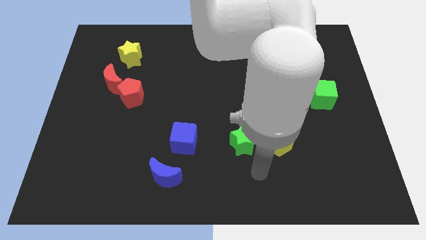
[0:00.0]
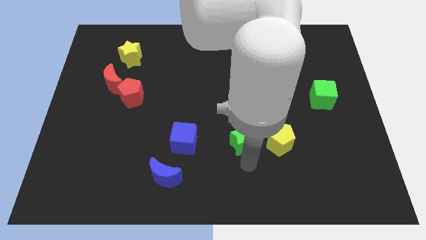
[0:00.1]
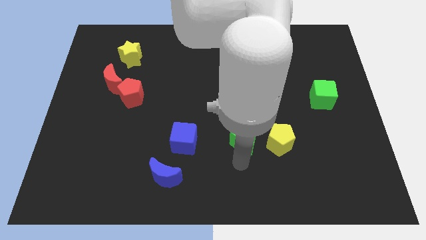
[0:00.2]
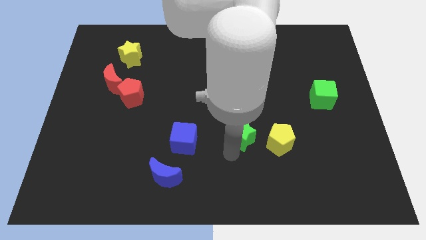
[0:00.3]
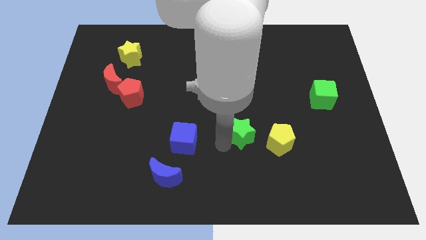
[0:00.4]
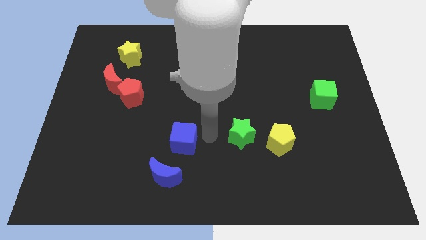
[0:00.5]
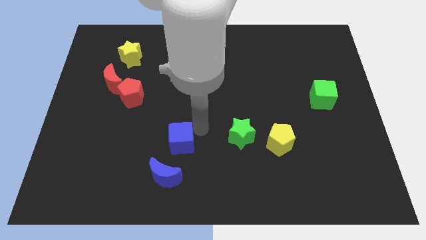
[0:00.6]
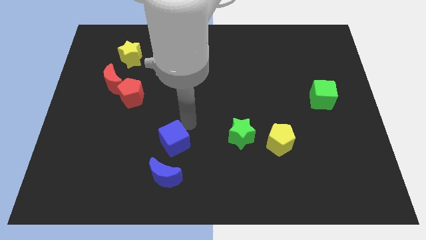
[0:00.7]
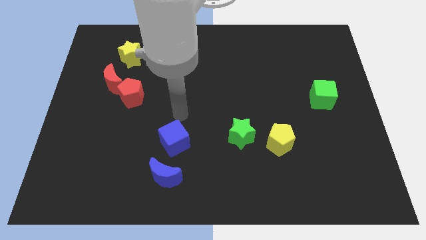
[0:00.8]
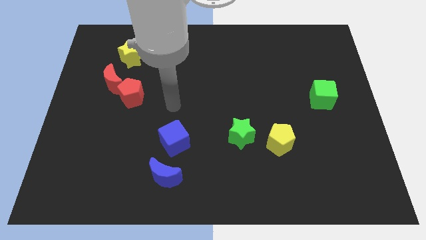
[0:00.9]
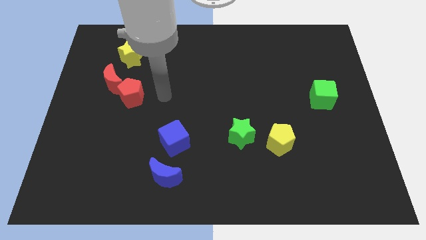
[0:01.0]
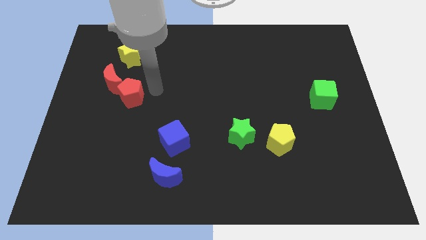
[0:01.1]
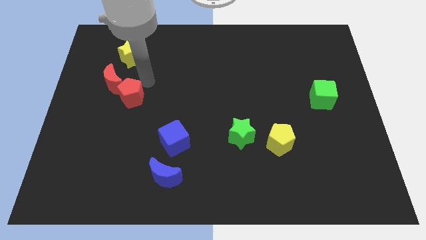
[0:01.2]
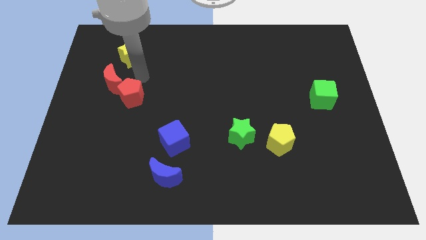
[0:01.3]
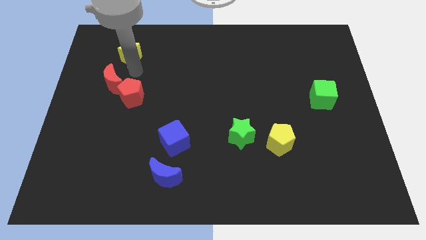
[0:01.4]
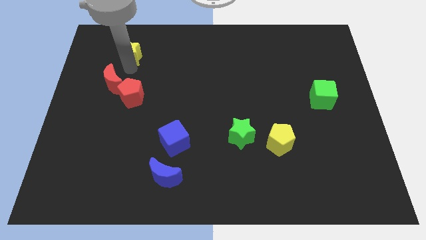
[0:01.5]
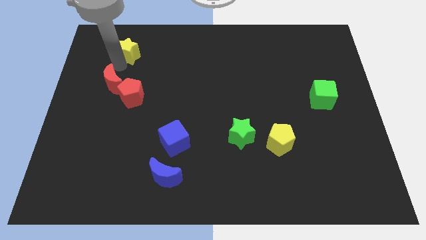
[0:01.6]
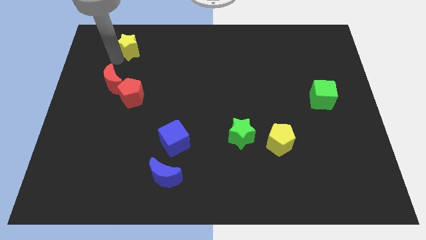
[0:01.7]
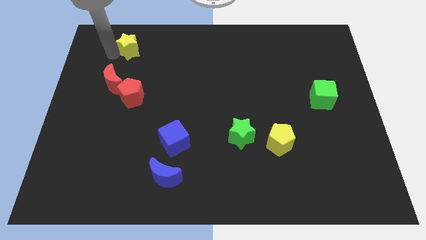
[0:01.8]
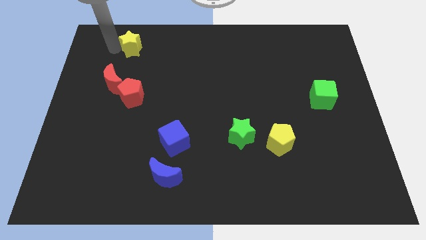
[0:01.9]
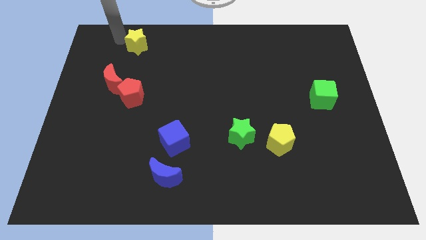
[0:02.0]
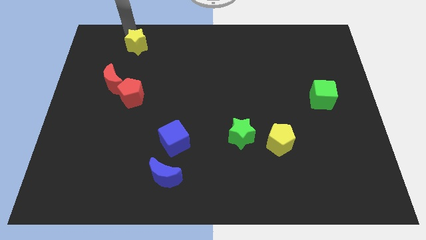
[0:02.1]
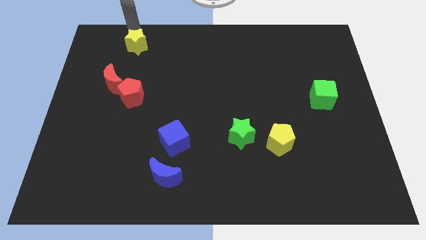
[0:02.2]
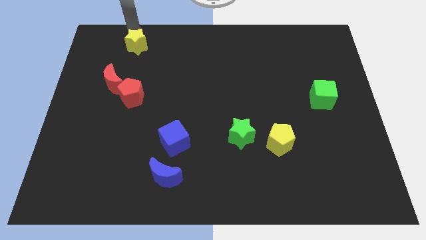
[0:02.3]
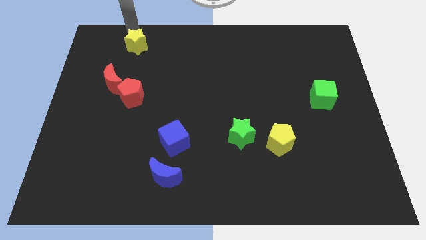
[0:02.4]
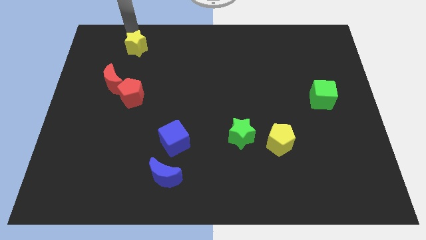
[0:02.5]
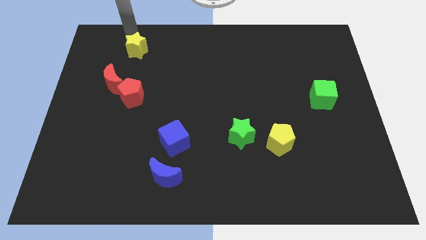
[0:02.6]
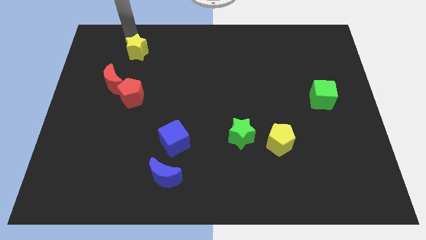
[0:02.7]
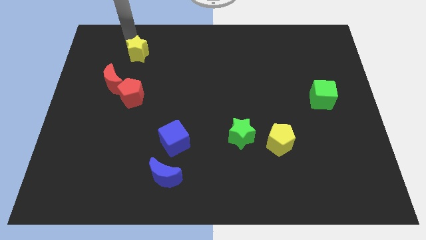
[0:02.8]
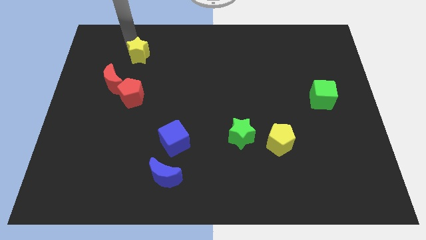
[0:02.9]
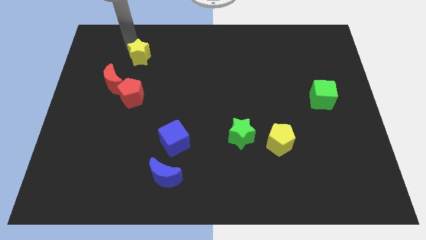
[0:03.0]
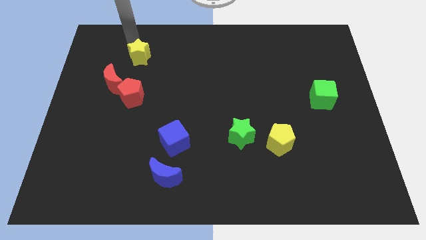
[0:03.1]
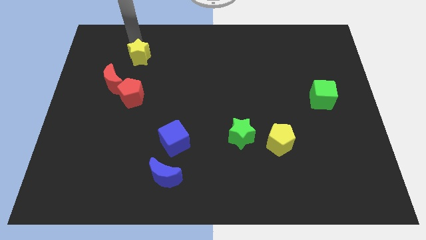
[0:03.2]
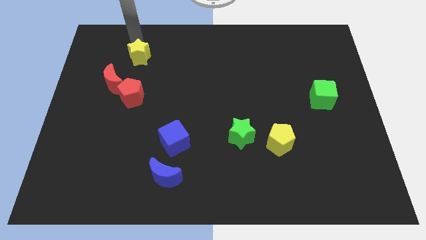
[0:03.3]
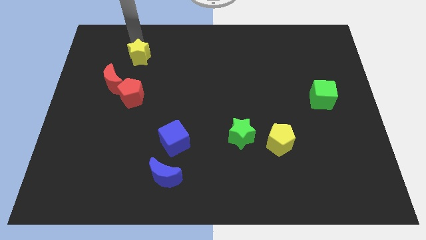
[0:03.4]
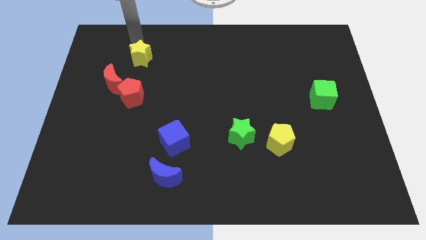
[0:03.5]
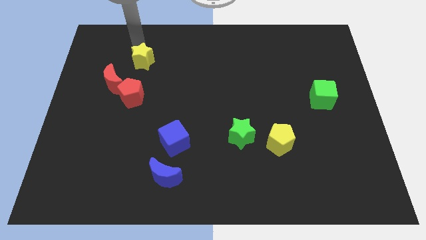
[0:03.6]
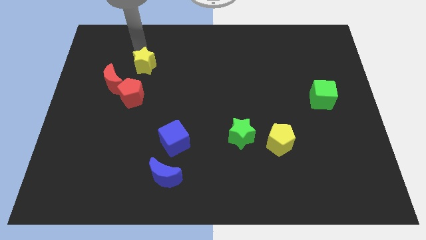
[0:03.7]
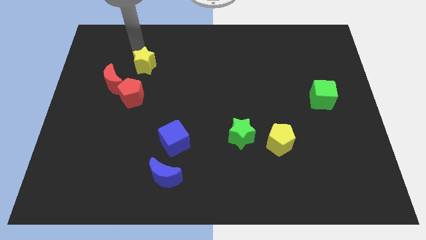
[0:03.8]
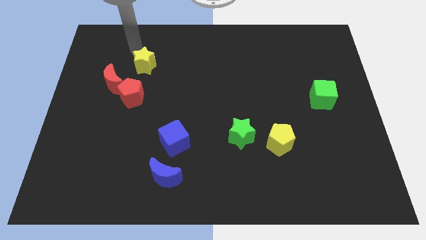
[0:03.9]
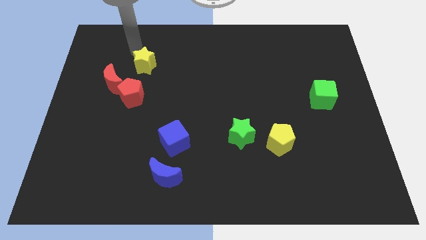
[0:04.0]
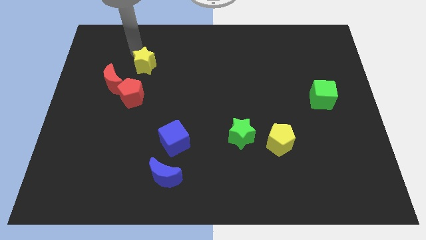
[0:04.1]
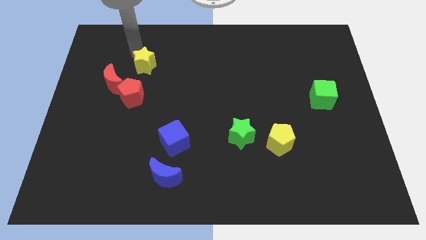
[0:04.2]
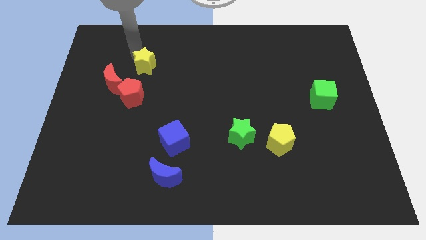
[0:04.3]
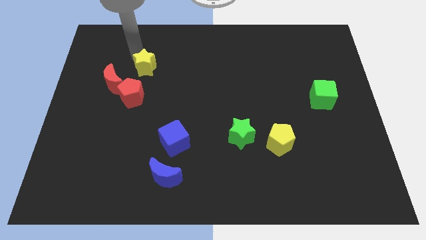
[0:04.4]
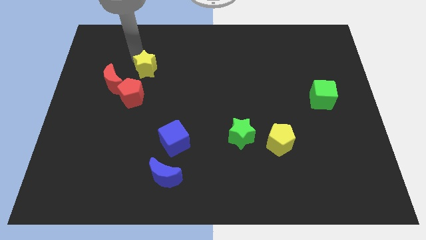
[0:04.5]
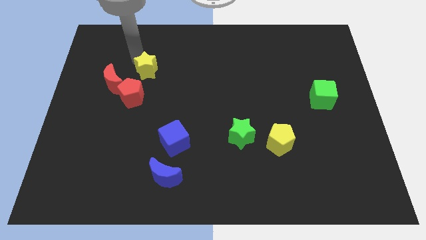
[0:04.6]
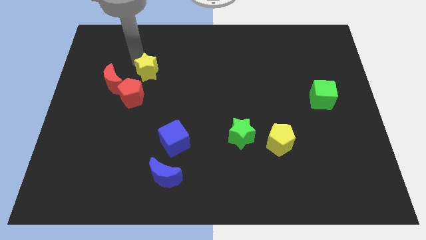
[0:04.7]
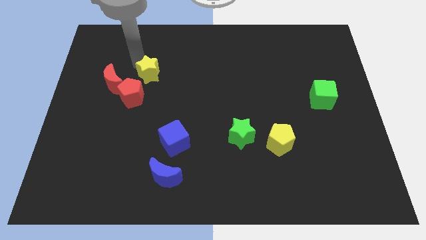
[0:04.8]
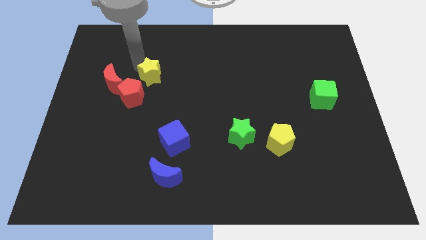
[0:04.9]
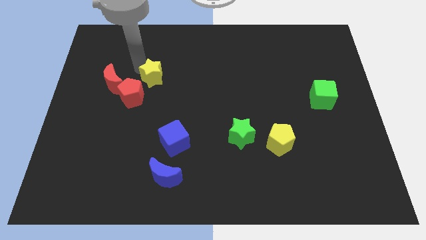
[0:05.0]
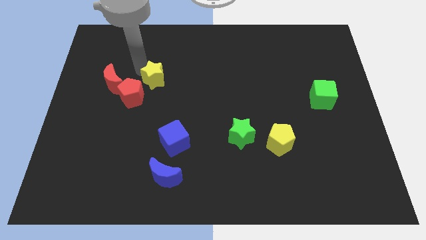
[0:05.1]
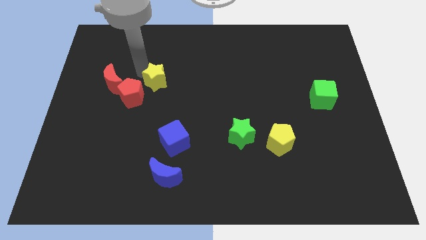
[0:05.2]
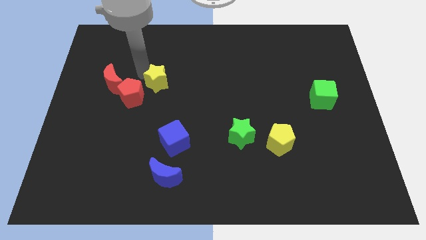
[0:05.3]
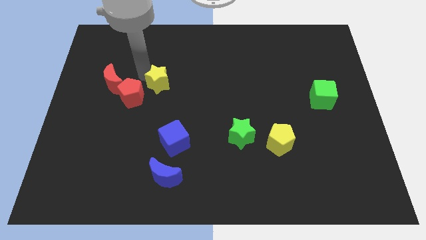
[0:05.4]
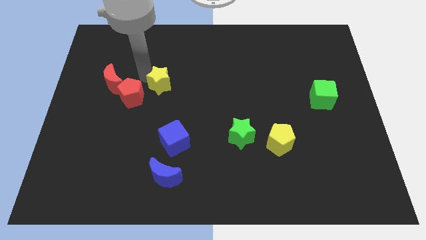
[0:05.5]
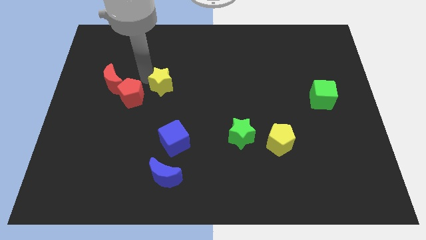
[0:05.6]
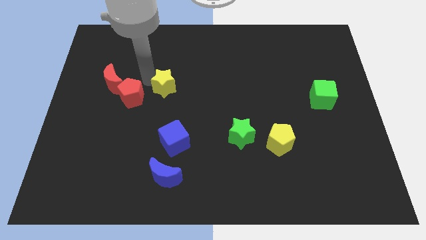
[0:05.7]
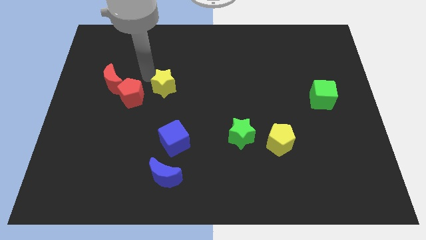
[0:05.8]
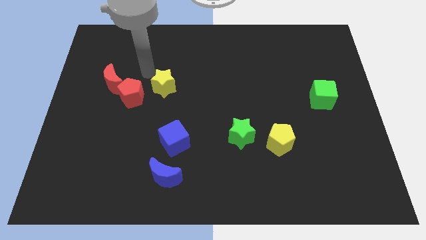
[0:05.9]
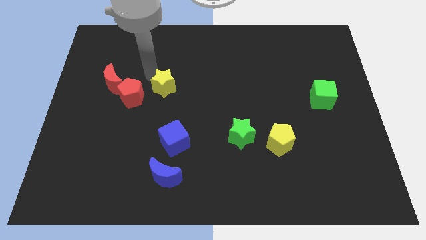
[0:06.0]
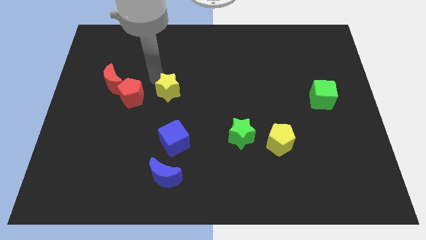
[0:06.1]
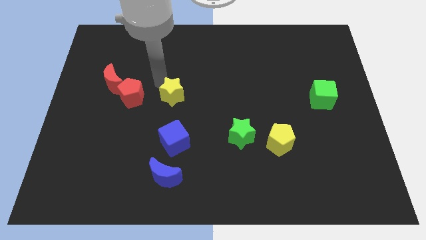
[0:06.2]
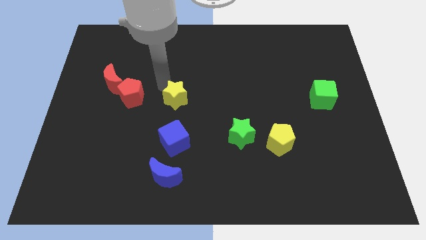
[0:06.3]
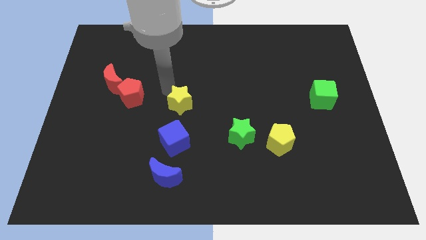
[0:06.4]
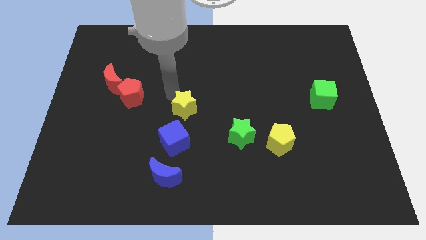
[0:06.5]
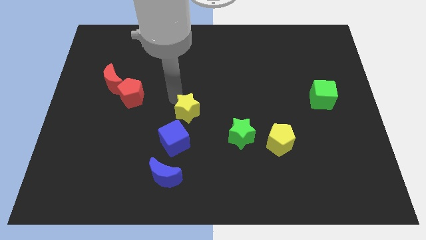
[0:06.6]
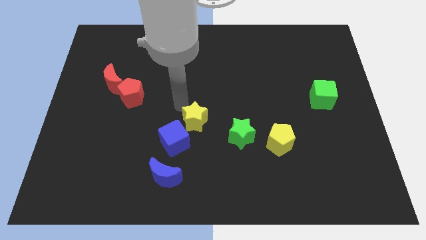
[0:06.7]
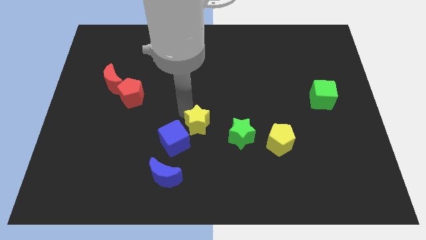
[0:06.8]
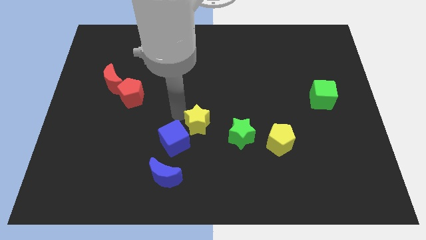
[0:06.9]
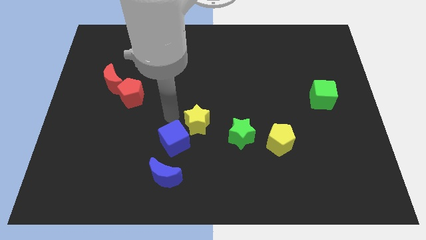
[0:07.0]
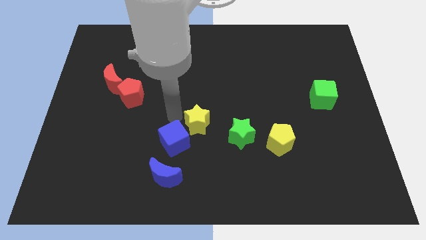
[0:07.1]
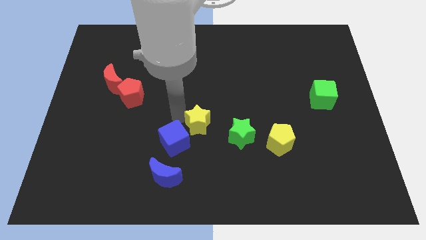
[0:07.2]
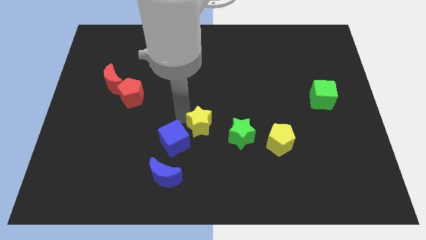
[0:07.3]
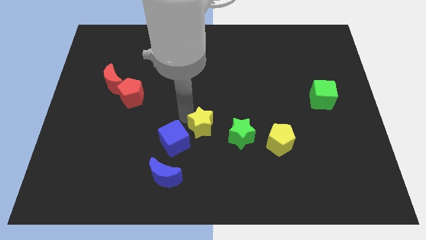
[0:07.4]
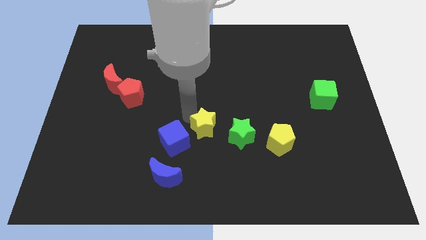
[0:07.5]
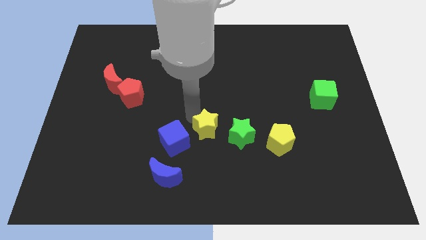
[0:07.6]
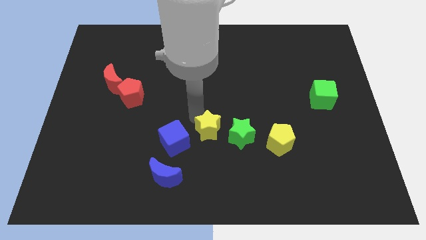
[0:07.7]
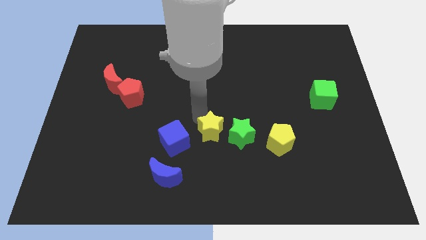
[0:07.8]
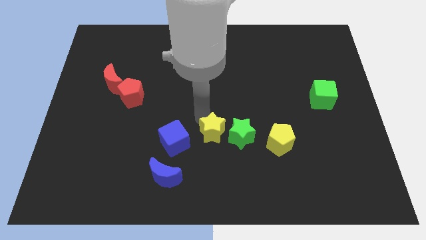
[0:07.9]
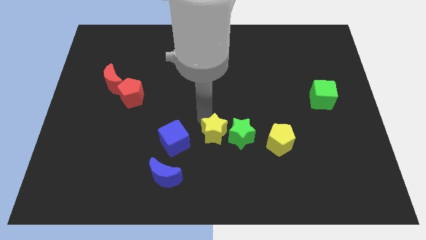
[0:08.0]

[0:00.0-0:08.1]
move the yellow star close to the green star
